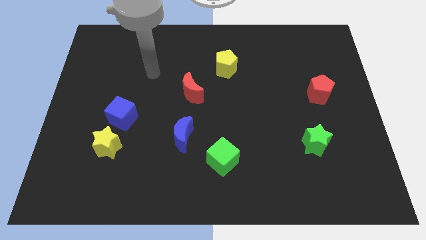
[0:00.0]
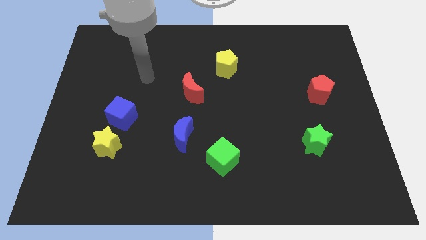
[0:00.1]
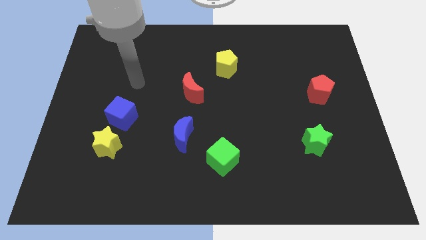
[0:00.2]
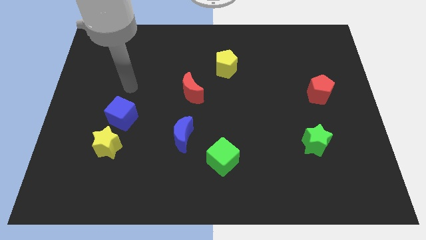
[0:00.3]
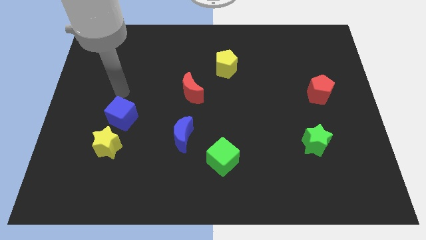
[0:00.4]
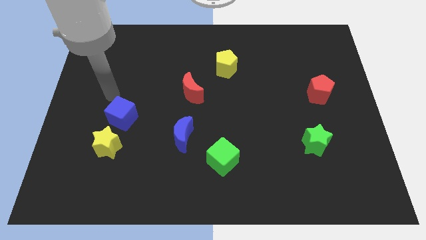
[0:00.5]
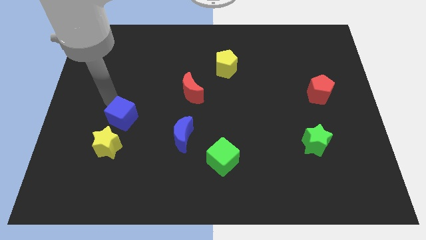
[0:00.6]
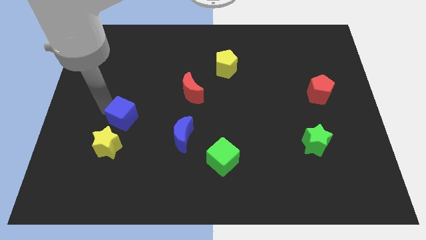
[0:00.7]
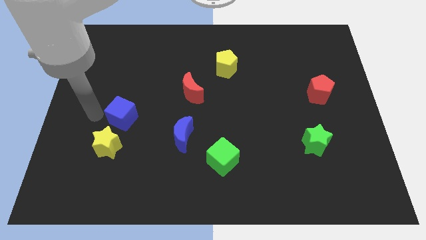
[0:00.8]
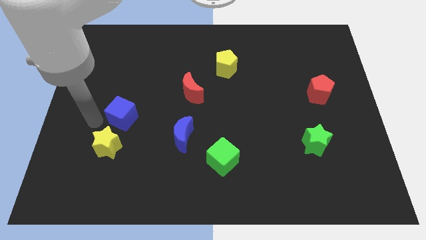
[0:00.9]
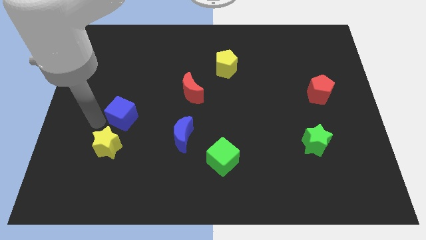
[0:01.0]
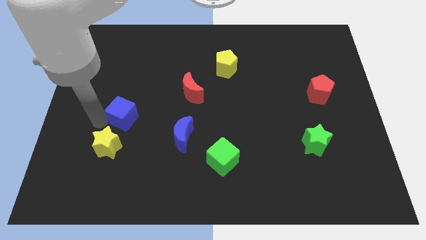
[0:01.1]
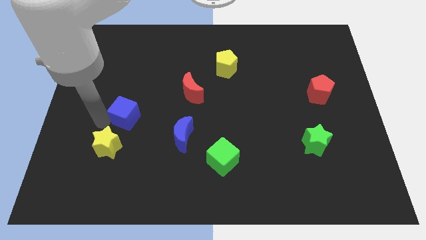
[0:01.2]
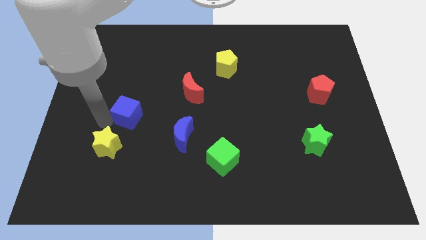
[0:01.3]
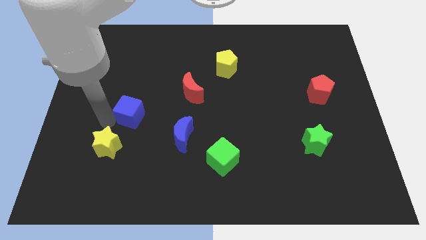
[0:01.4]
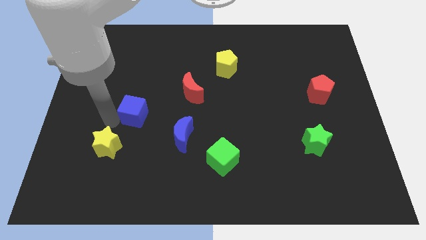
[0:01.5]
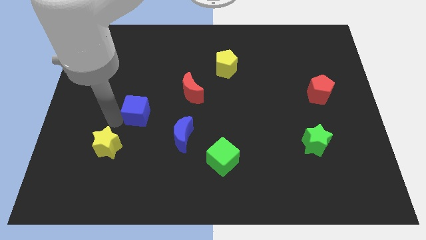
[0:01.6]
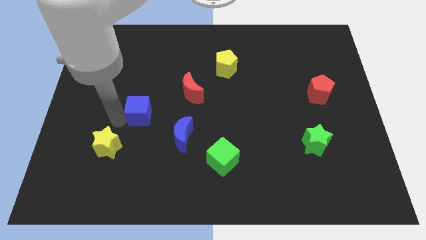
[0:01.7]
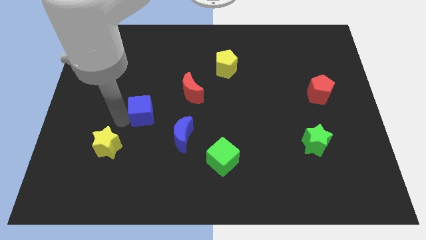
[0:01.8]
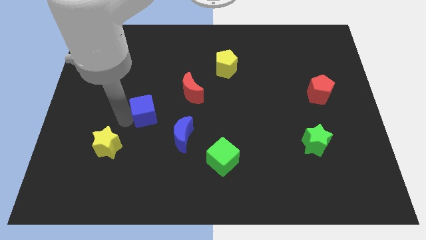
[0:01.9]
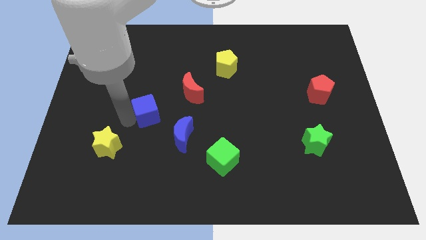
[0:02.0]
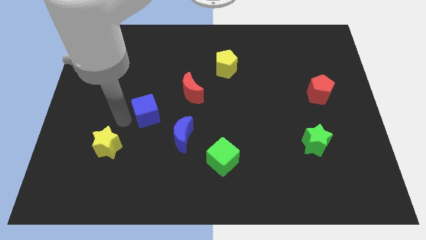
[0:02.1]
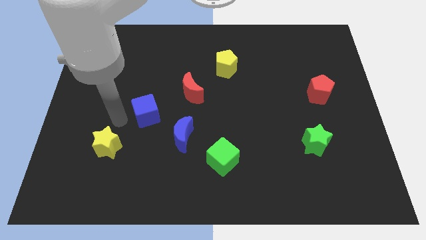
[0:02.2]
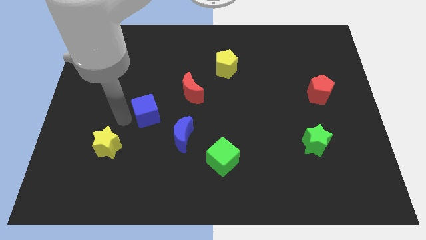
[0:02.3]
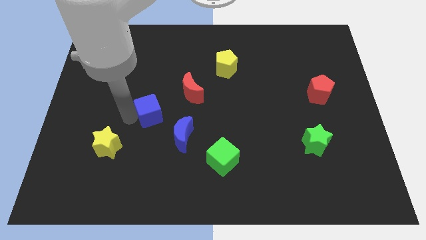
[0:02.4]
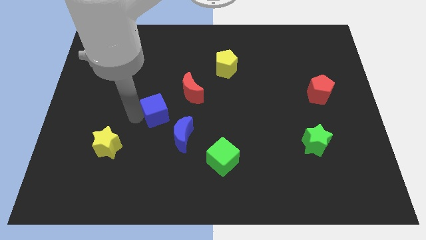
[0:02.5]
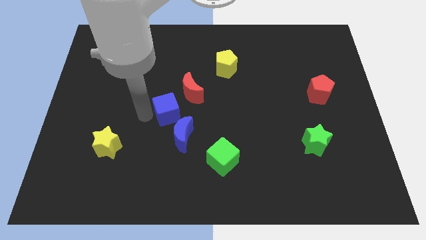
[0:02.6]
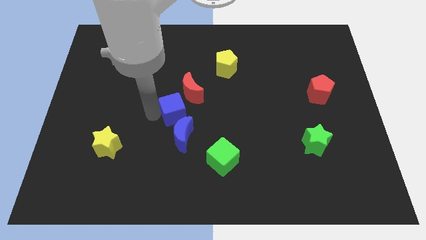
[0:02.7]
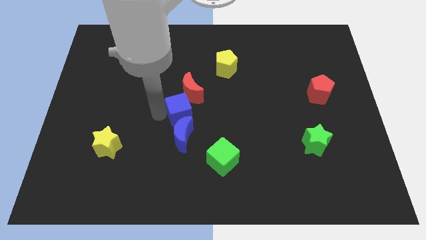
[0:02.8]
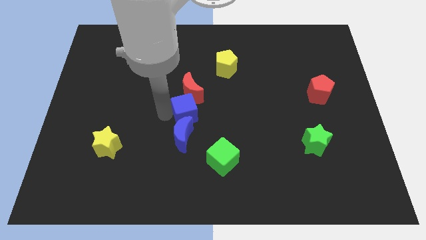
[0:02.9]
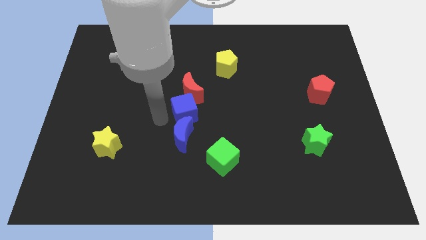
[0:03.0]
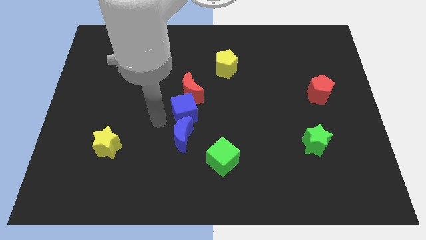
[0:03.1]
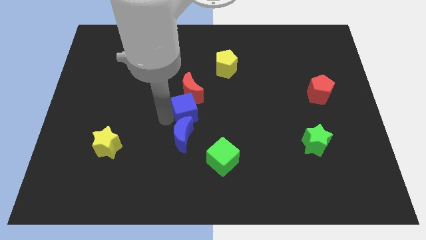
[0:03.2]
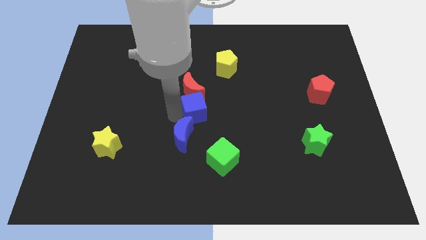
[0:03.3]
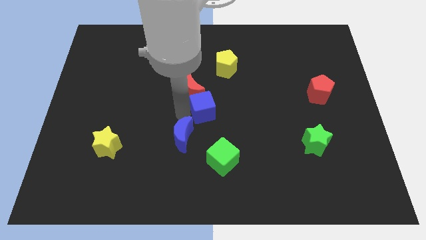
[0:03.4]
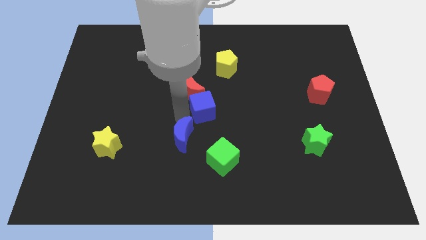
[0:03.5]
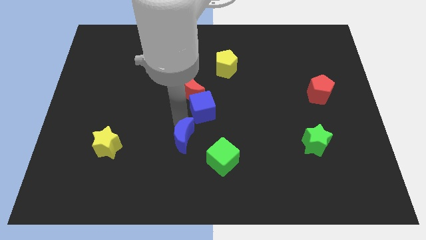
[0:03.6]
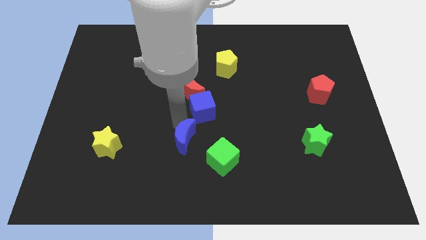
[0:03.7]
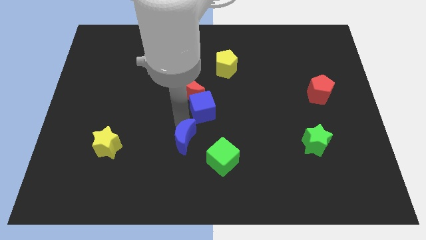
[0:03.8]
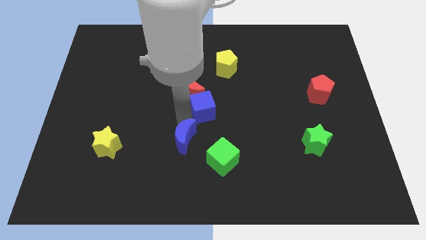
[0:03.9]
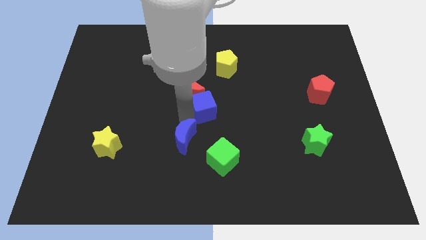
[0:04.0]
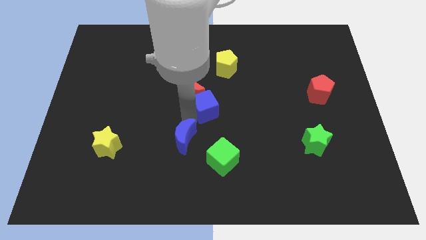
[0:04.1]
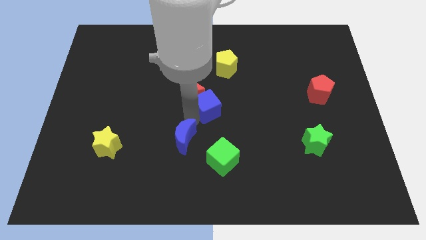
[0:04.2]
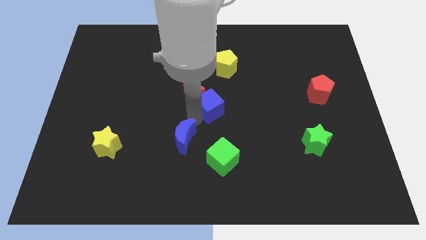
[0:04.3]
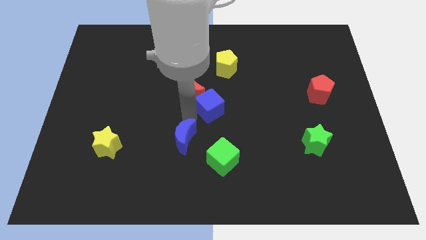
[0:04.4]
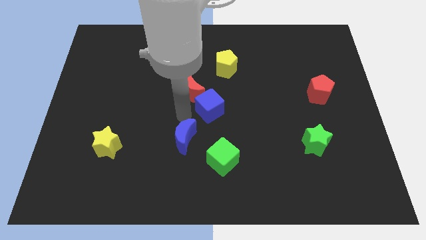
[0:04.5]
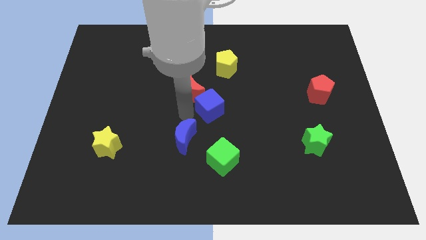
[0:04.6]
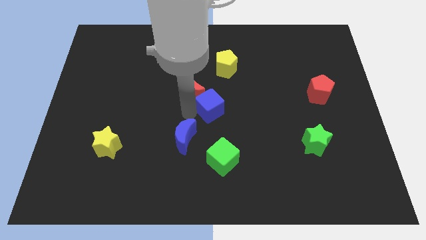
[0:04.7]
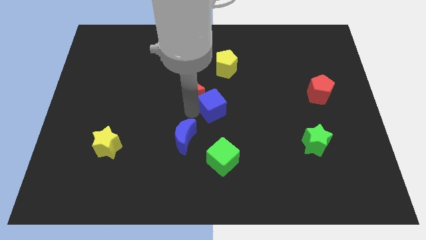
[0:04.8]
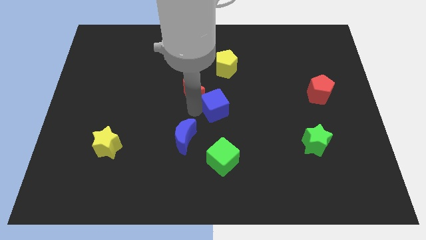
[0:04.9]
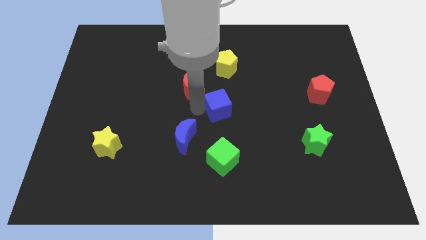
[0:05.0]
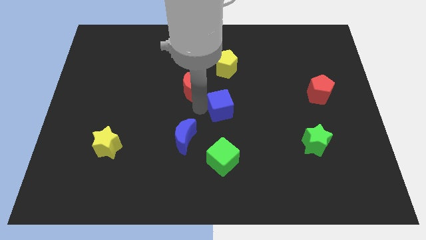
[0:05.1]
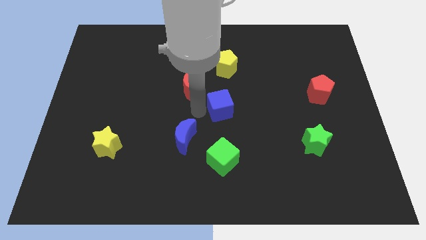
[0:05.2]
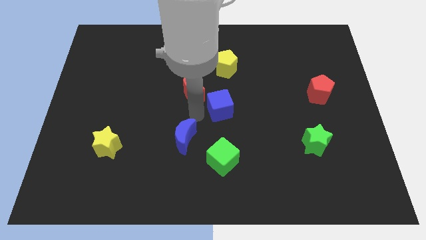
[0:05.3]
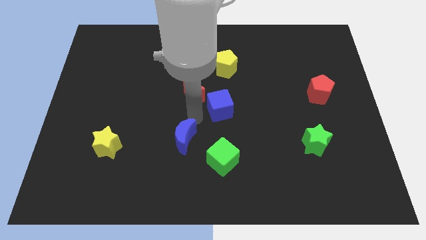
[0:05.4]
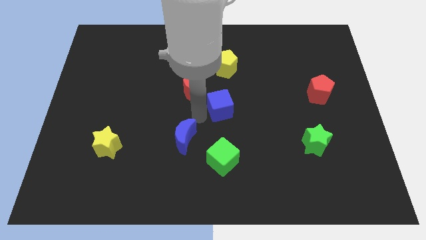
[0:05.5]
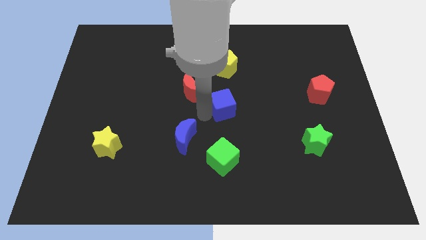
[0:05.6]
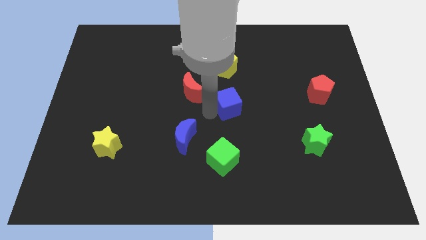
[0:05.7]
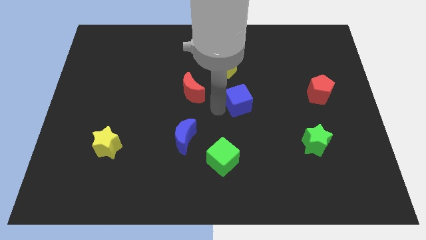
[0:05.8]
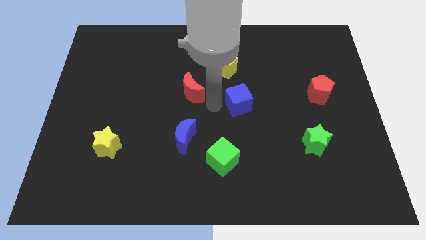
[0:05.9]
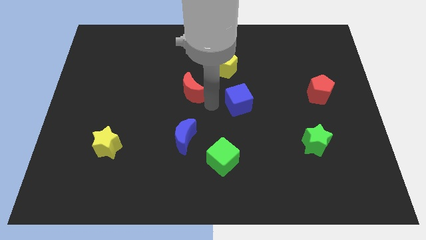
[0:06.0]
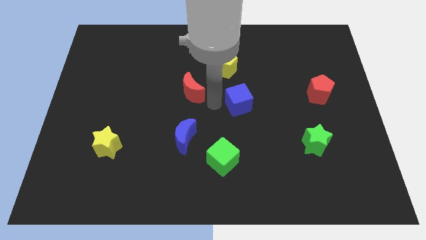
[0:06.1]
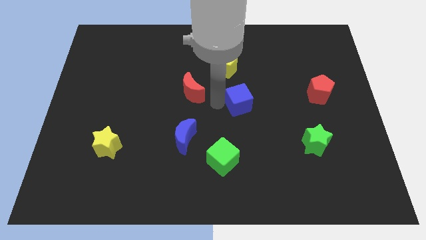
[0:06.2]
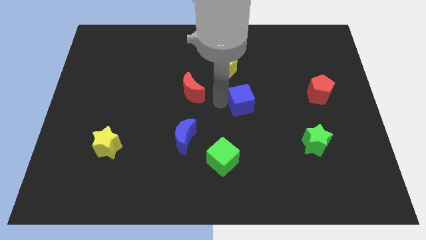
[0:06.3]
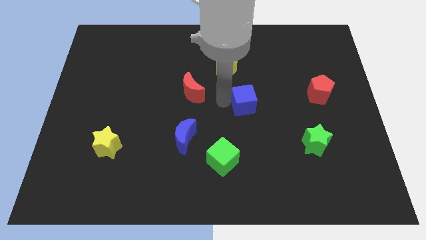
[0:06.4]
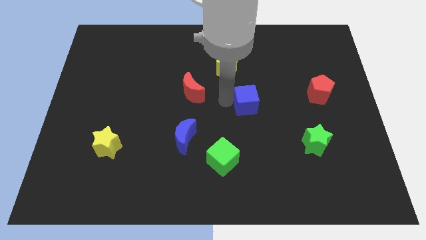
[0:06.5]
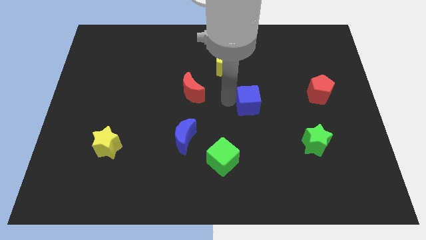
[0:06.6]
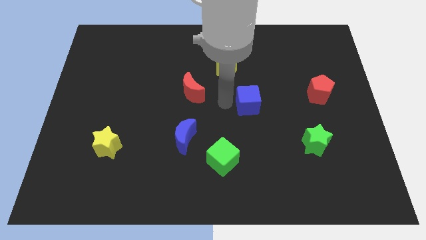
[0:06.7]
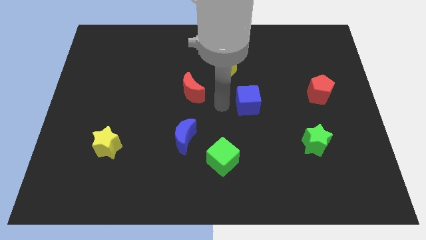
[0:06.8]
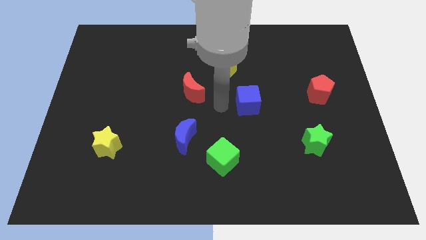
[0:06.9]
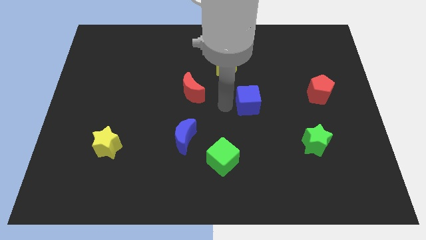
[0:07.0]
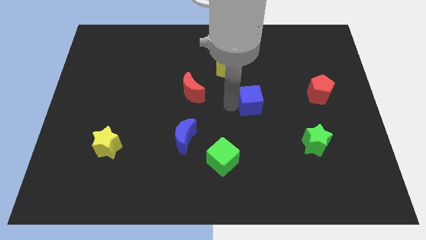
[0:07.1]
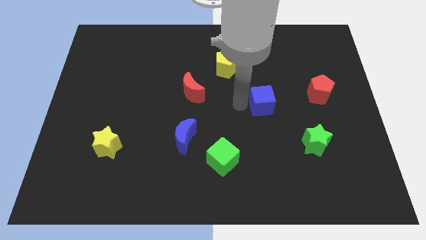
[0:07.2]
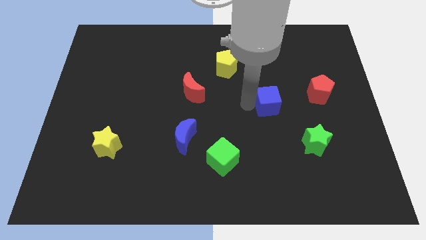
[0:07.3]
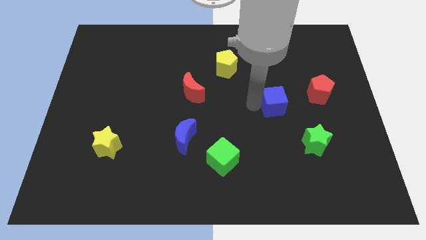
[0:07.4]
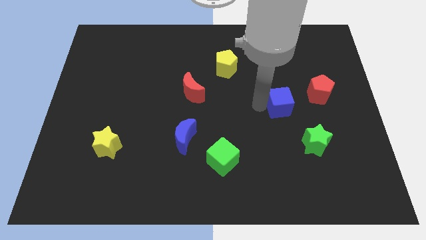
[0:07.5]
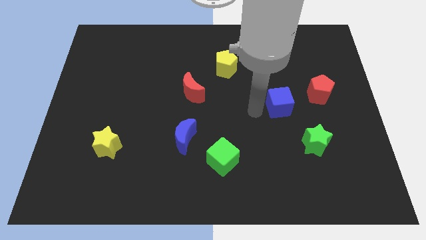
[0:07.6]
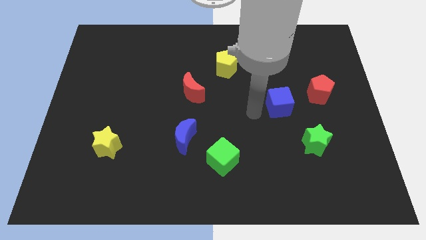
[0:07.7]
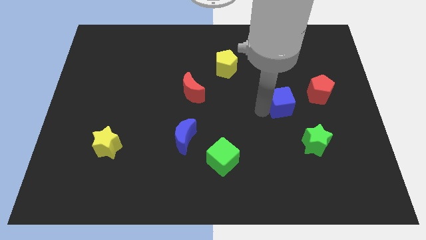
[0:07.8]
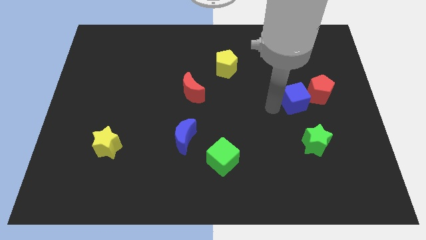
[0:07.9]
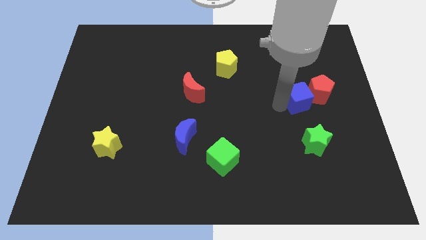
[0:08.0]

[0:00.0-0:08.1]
slide the blue cube next to the red pentagon
